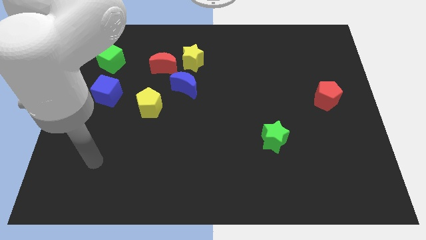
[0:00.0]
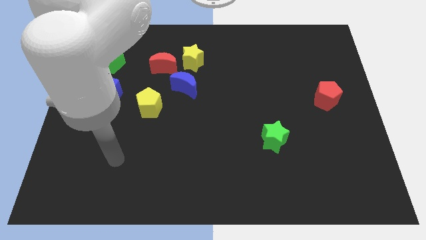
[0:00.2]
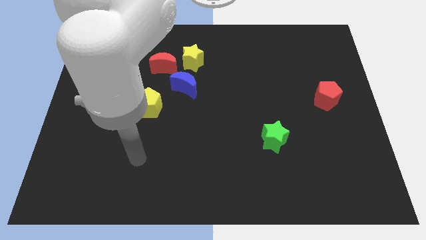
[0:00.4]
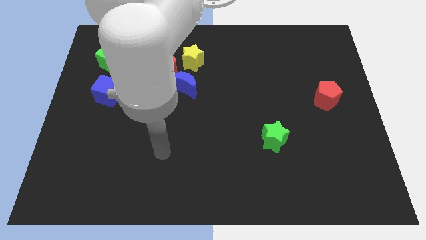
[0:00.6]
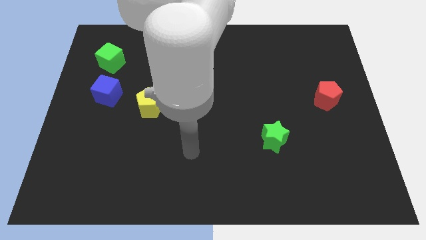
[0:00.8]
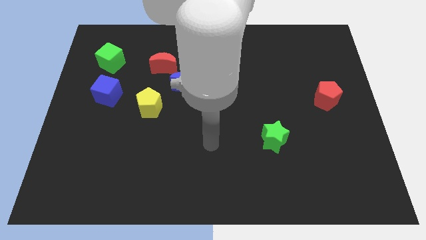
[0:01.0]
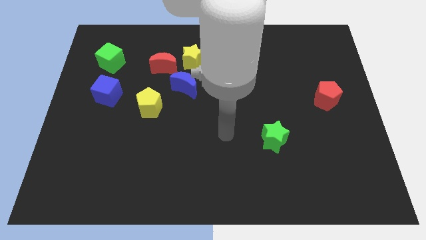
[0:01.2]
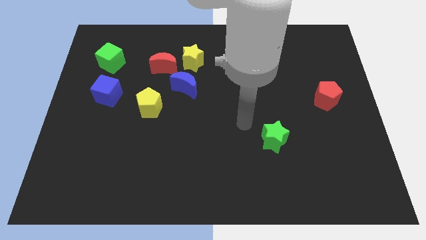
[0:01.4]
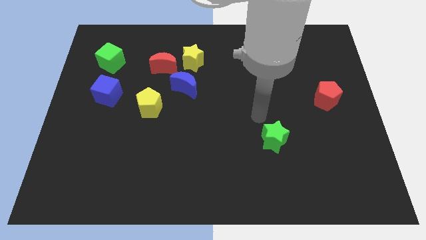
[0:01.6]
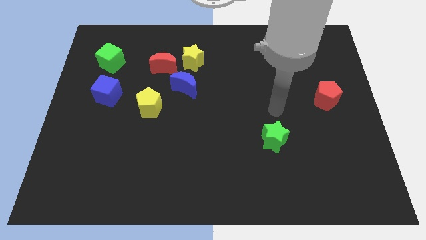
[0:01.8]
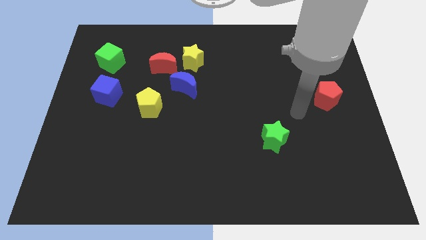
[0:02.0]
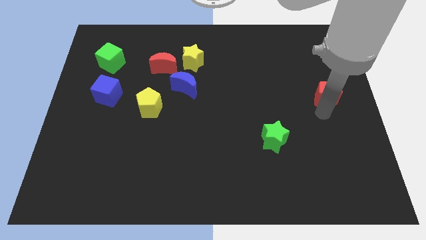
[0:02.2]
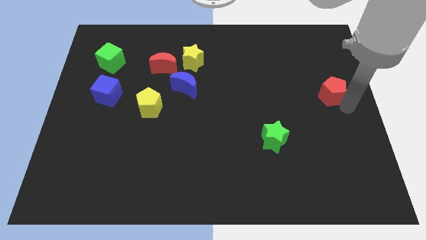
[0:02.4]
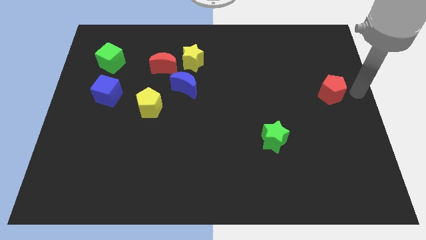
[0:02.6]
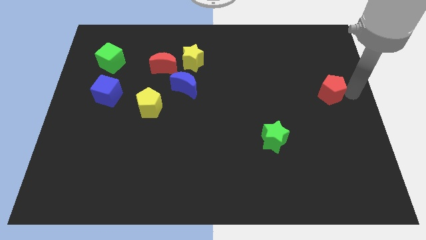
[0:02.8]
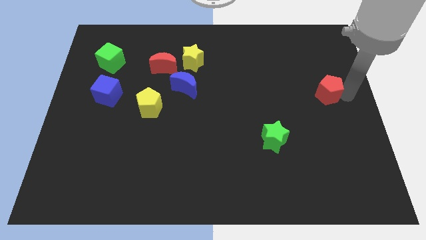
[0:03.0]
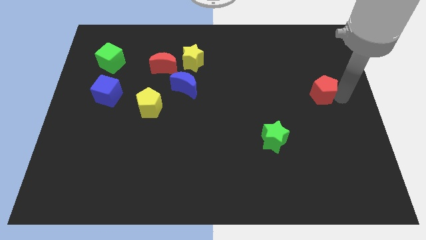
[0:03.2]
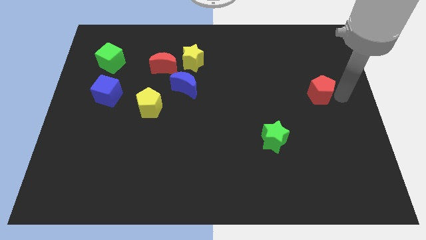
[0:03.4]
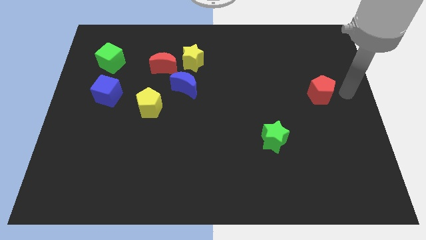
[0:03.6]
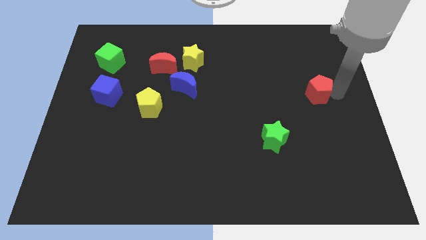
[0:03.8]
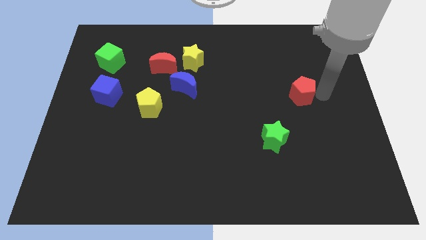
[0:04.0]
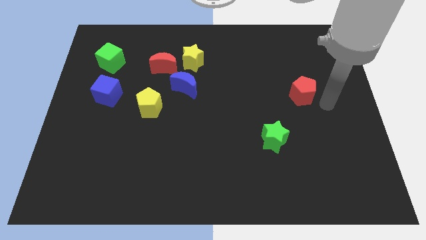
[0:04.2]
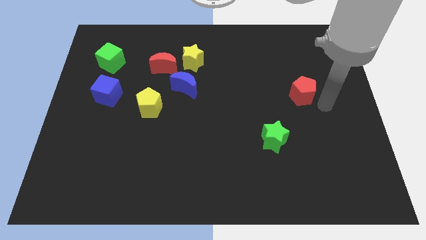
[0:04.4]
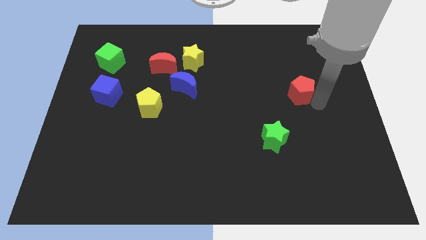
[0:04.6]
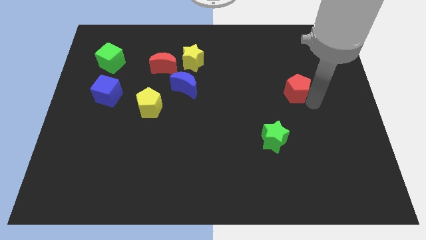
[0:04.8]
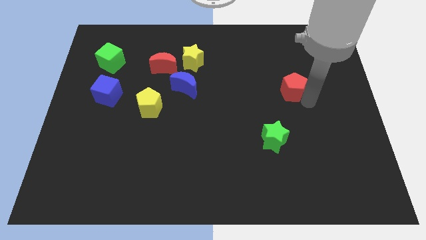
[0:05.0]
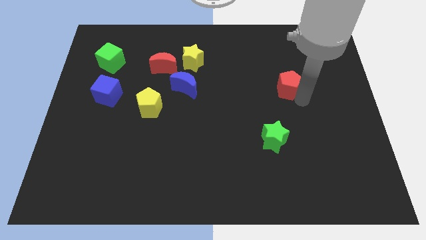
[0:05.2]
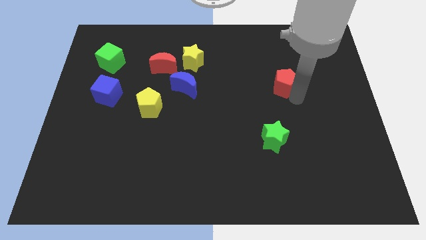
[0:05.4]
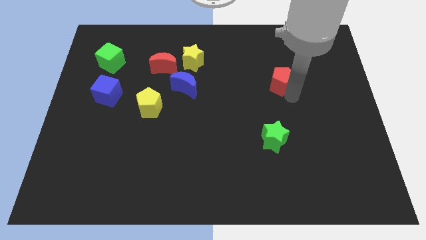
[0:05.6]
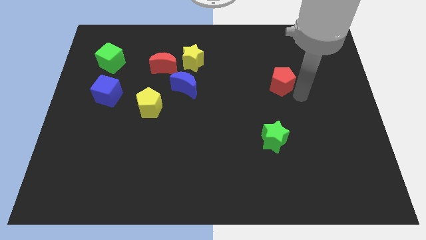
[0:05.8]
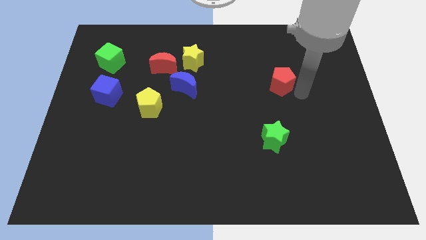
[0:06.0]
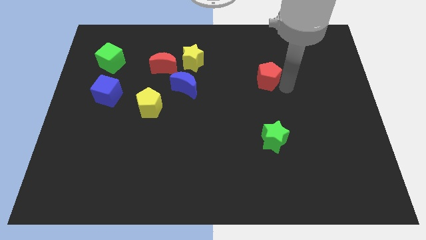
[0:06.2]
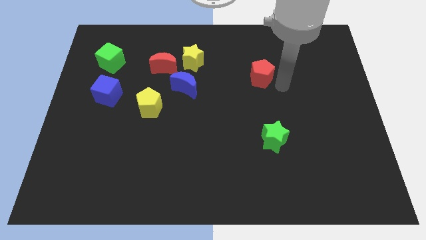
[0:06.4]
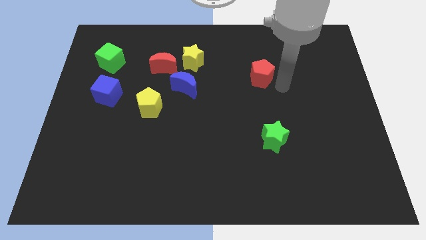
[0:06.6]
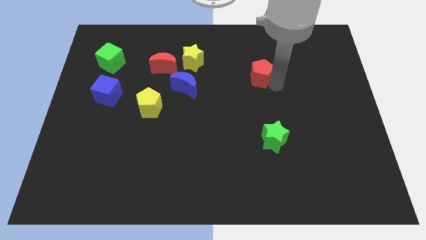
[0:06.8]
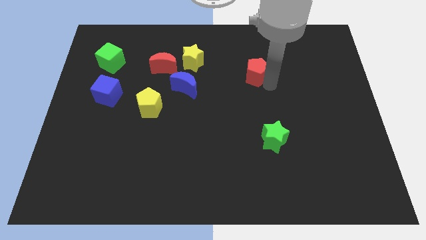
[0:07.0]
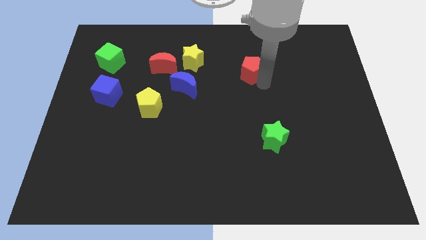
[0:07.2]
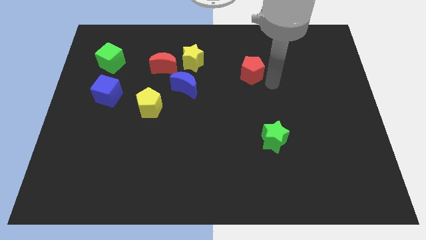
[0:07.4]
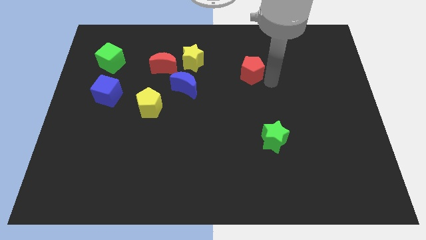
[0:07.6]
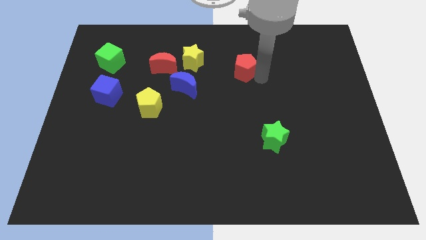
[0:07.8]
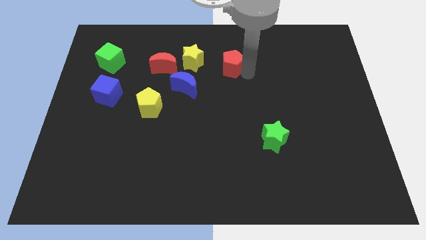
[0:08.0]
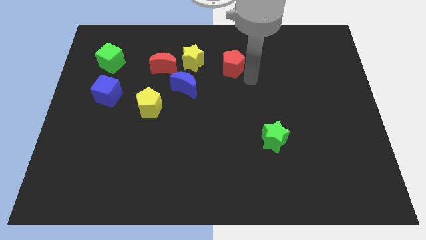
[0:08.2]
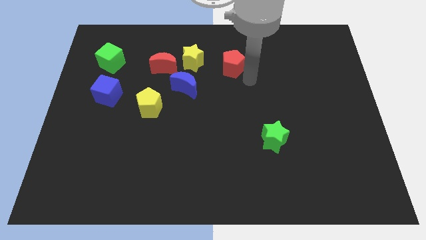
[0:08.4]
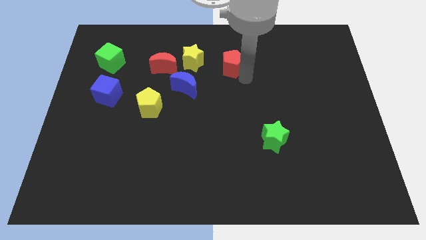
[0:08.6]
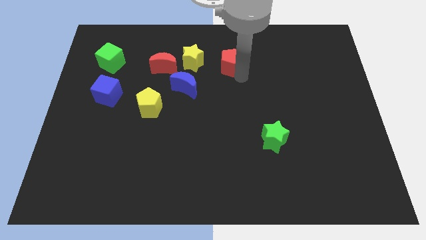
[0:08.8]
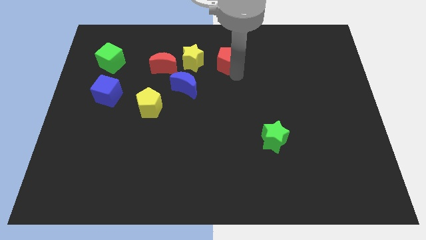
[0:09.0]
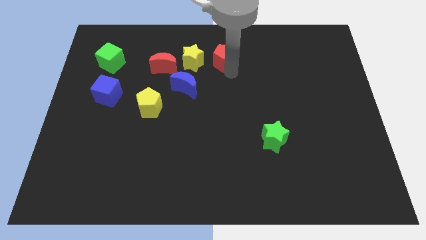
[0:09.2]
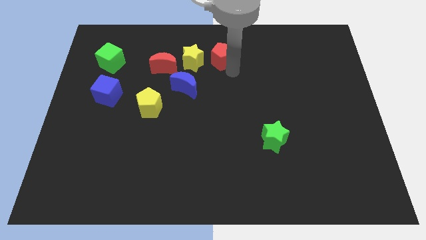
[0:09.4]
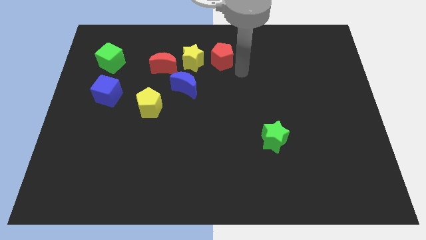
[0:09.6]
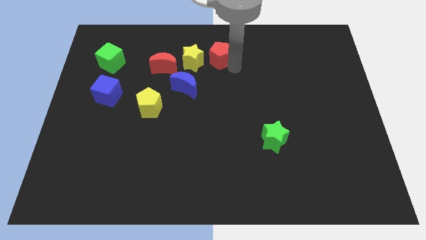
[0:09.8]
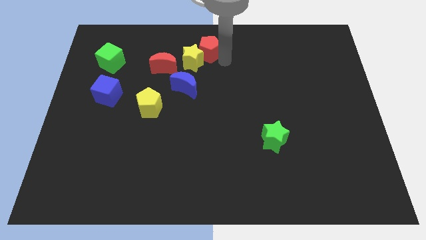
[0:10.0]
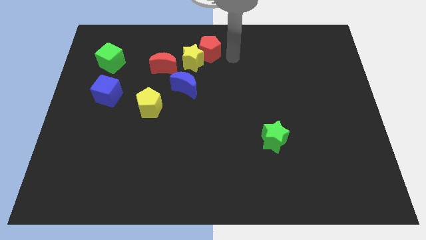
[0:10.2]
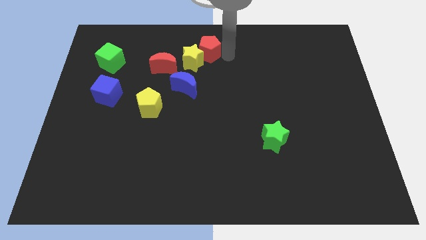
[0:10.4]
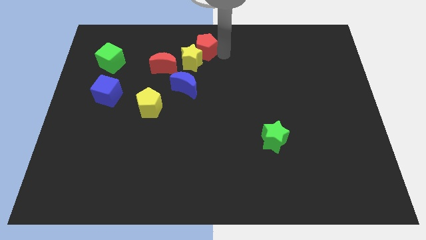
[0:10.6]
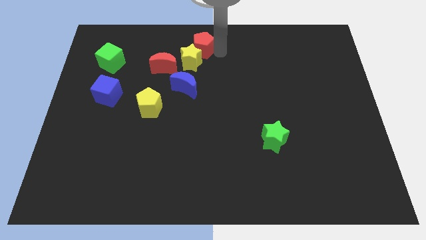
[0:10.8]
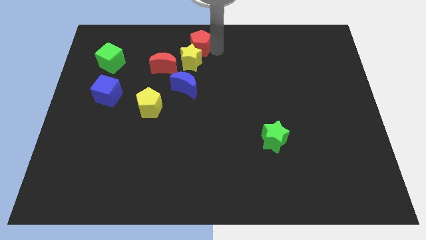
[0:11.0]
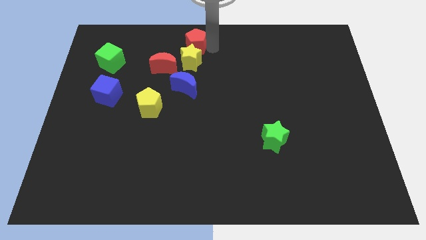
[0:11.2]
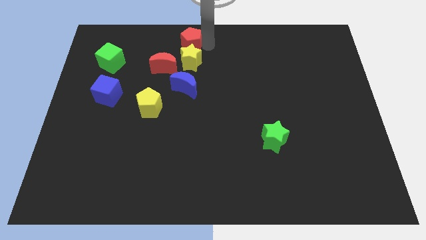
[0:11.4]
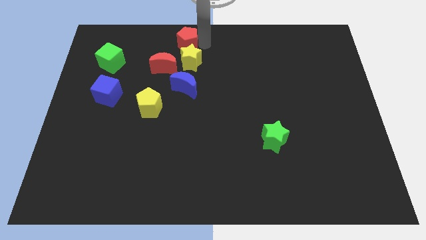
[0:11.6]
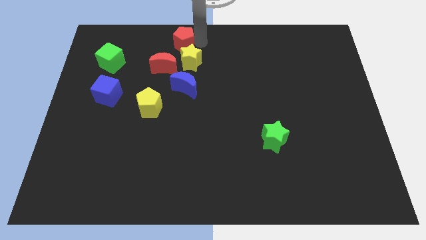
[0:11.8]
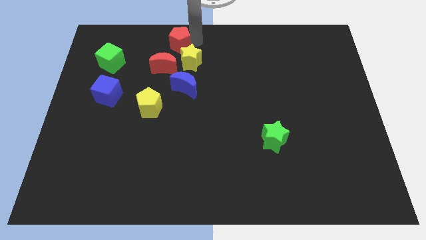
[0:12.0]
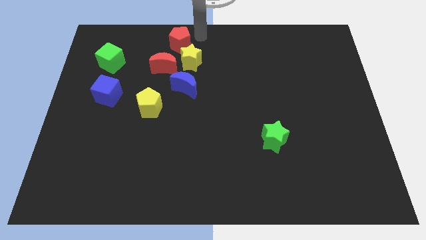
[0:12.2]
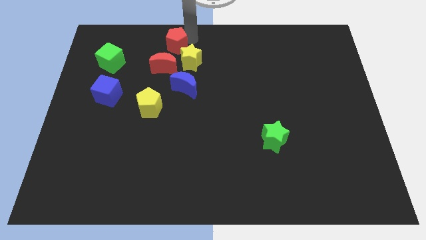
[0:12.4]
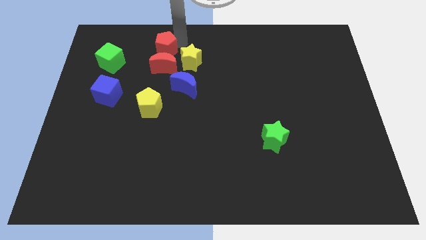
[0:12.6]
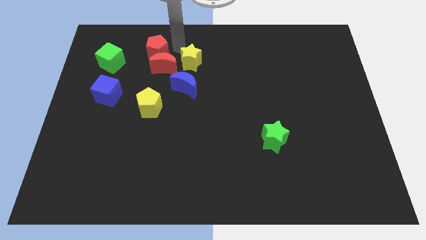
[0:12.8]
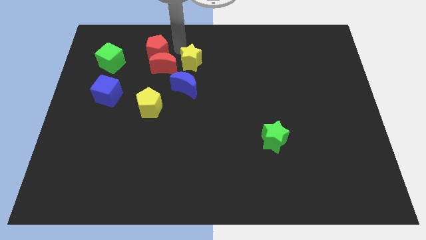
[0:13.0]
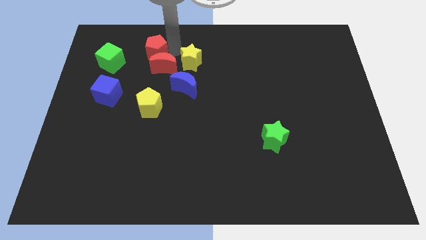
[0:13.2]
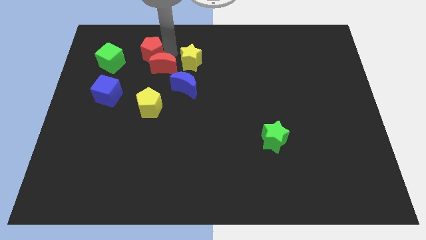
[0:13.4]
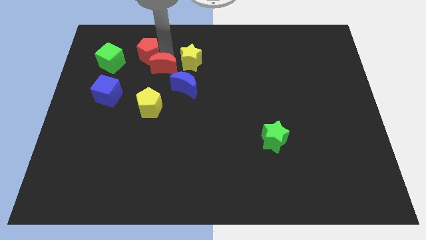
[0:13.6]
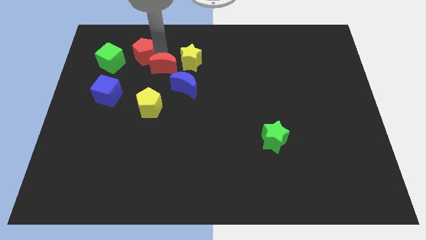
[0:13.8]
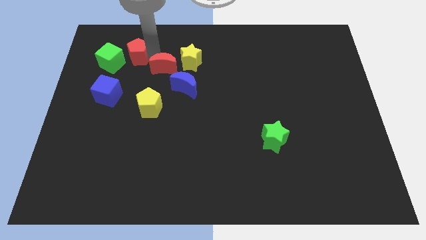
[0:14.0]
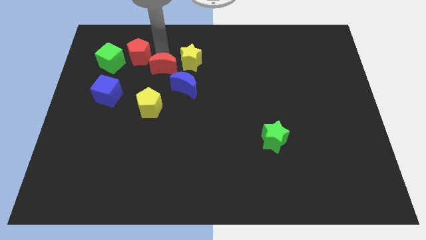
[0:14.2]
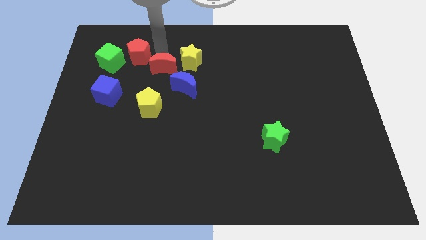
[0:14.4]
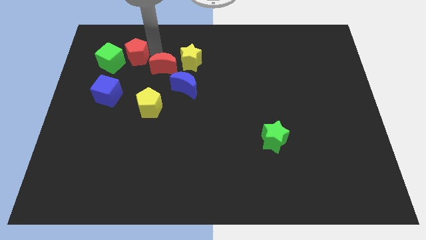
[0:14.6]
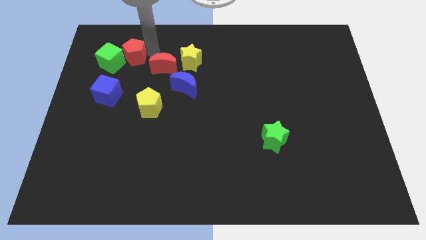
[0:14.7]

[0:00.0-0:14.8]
put the red pentagon towards the green cube
